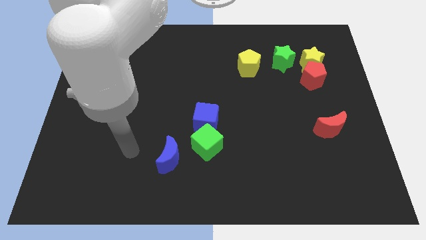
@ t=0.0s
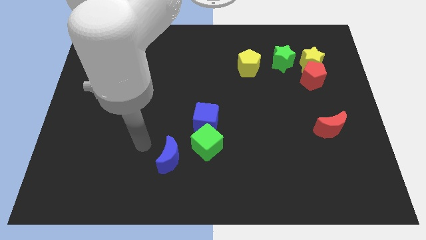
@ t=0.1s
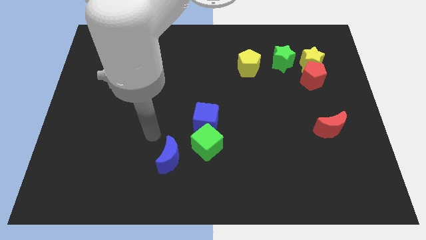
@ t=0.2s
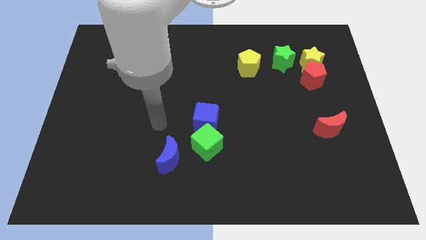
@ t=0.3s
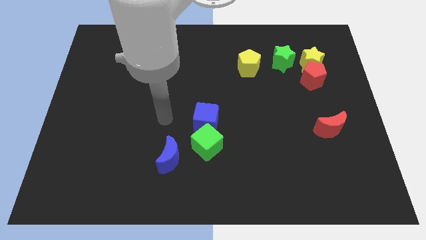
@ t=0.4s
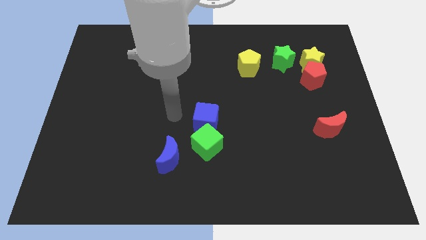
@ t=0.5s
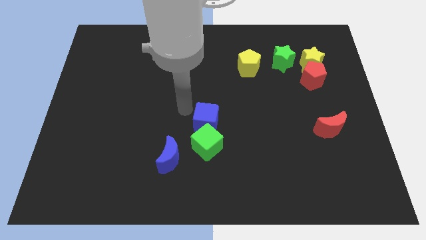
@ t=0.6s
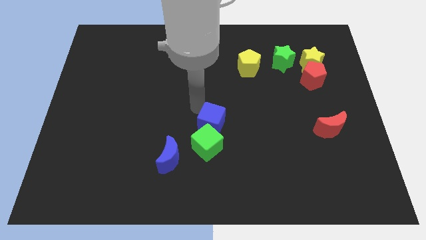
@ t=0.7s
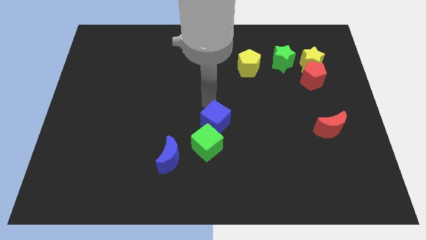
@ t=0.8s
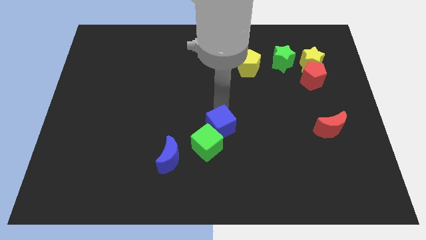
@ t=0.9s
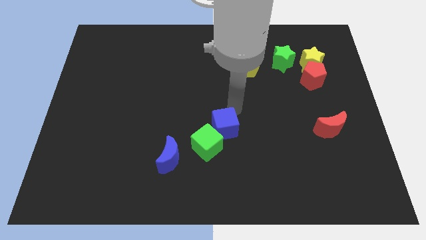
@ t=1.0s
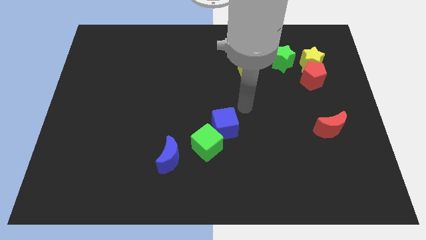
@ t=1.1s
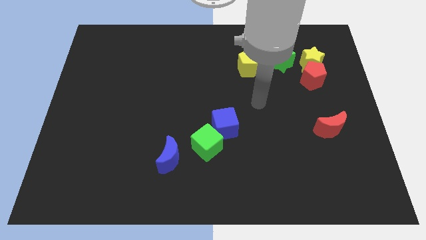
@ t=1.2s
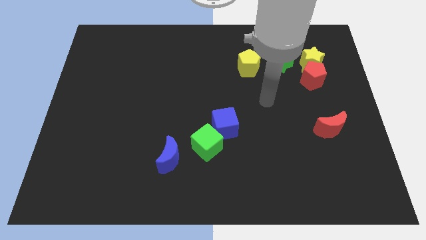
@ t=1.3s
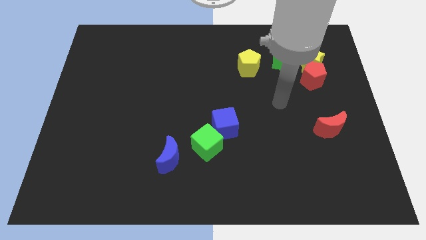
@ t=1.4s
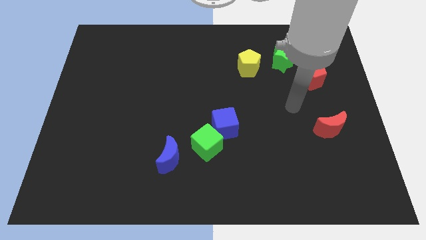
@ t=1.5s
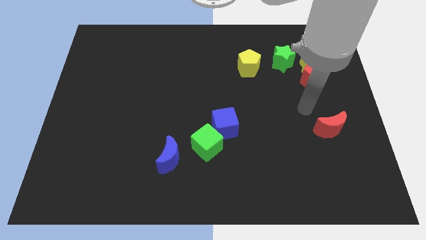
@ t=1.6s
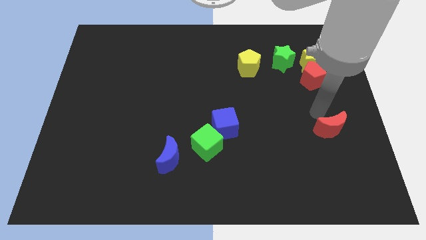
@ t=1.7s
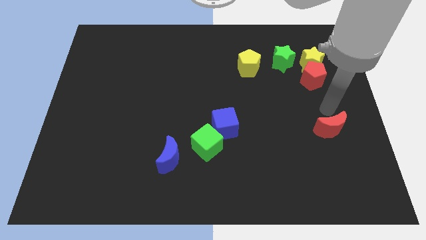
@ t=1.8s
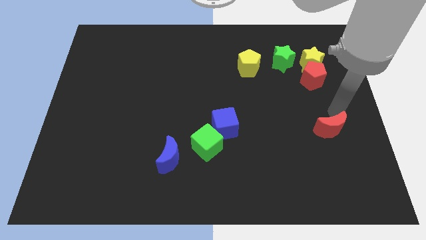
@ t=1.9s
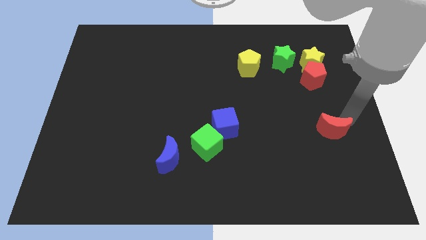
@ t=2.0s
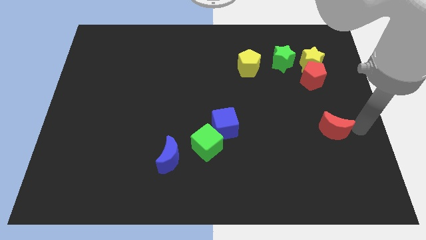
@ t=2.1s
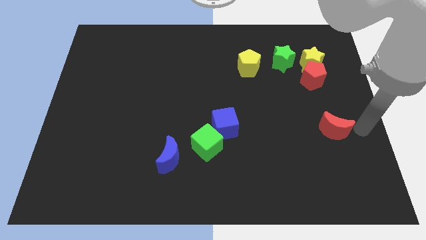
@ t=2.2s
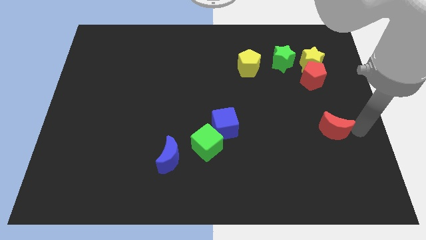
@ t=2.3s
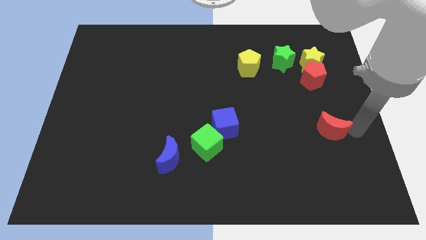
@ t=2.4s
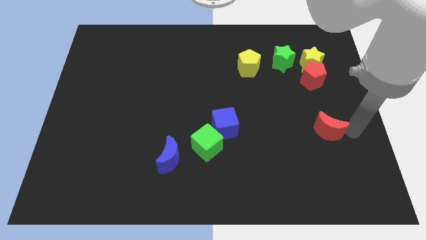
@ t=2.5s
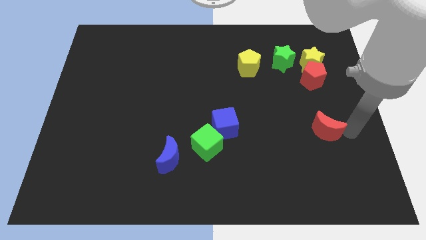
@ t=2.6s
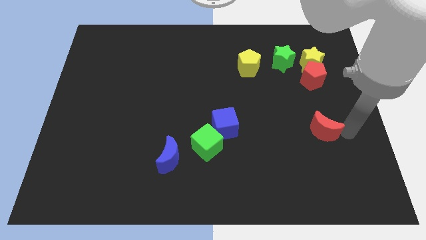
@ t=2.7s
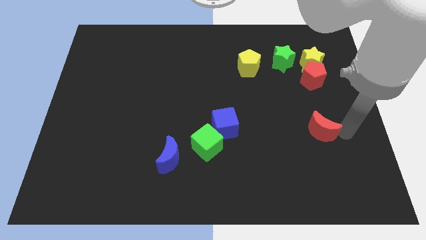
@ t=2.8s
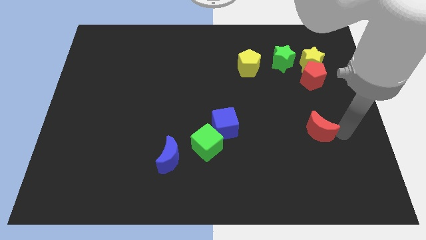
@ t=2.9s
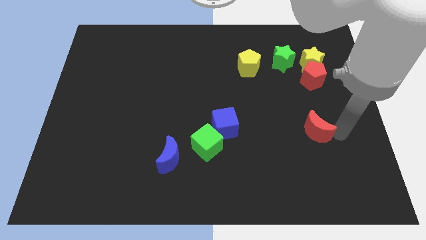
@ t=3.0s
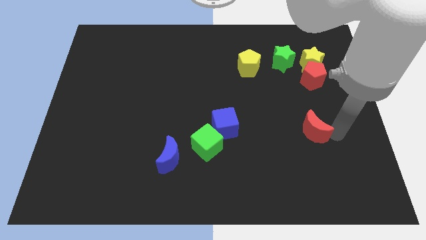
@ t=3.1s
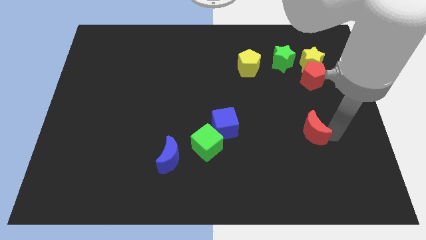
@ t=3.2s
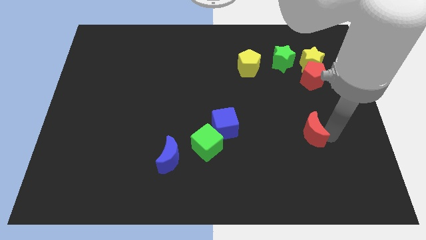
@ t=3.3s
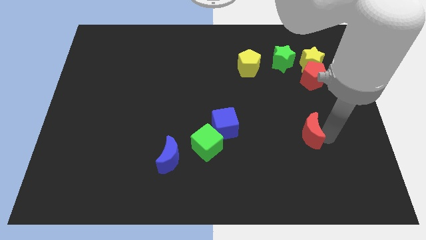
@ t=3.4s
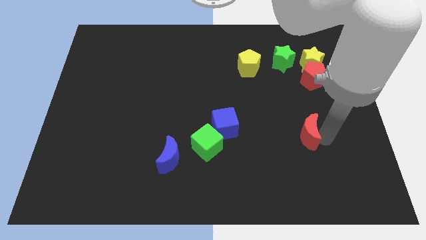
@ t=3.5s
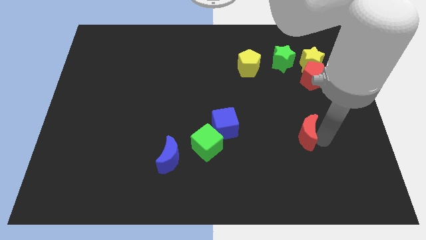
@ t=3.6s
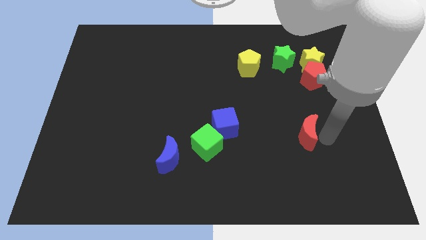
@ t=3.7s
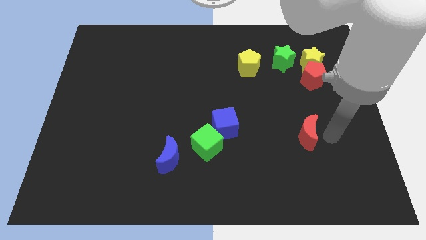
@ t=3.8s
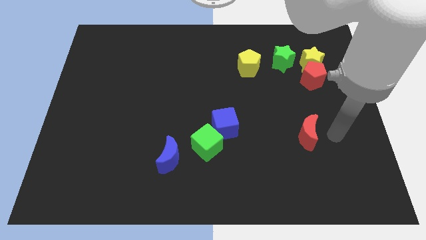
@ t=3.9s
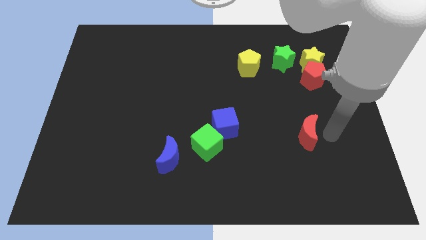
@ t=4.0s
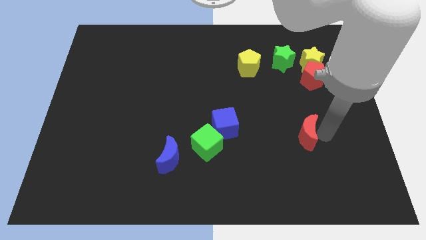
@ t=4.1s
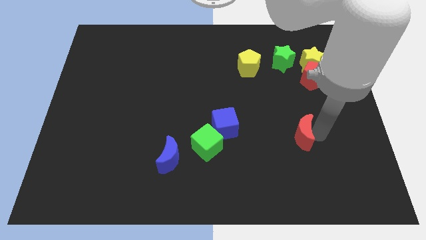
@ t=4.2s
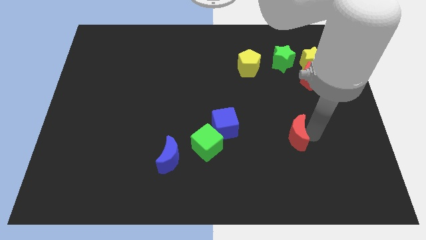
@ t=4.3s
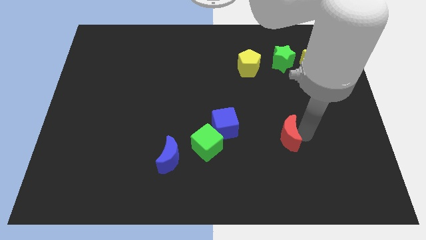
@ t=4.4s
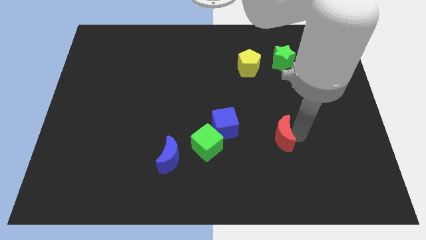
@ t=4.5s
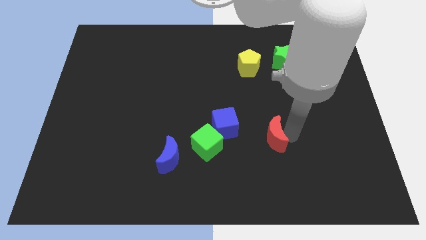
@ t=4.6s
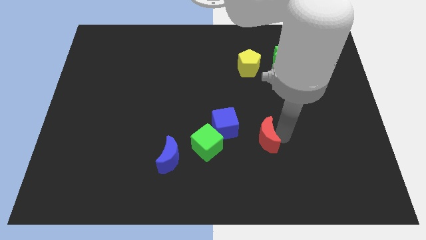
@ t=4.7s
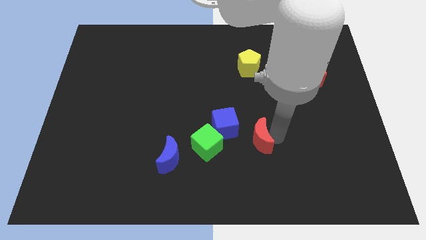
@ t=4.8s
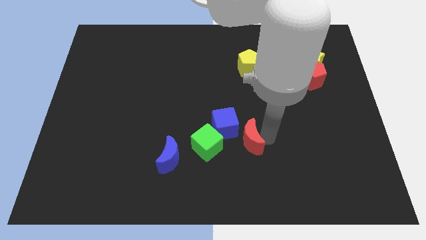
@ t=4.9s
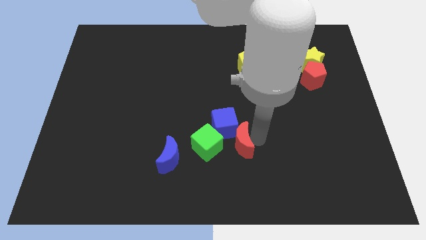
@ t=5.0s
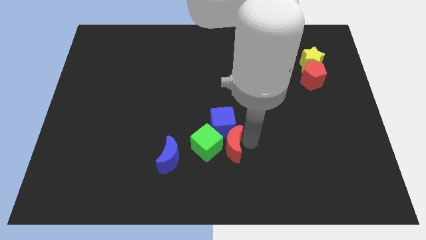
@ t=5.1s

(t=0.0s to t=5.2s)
push the red moon close to the green cube

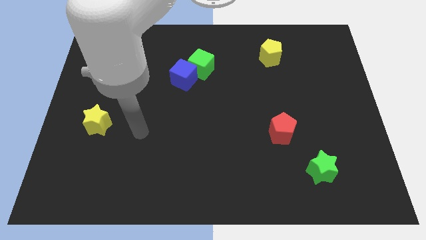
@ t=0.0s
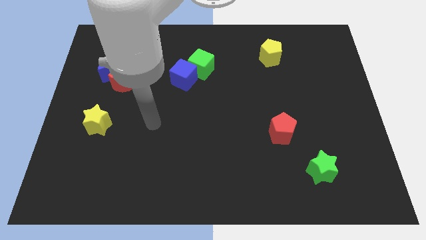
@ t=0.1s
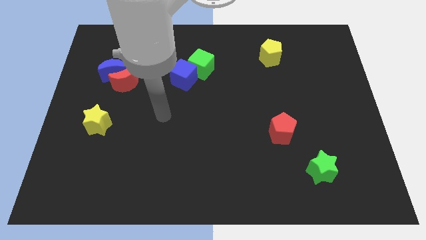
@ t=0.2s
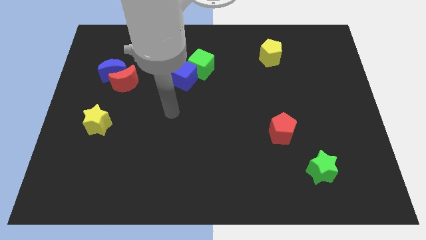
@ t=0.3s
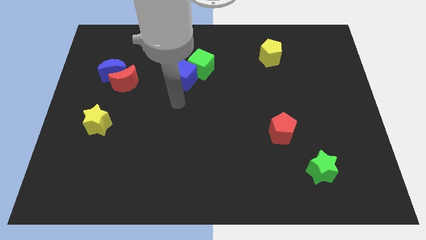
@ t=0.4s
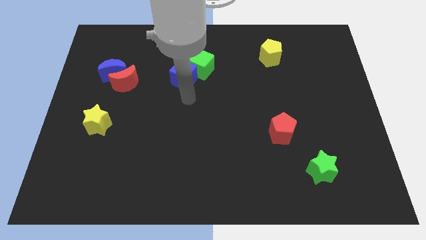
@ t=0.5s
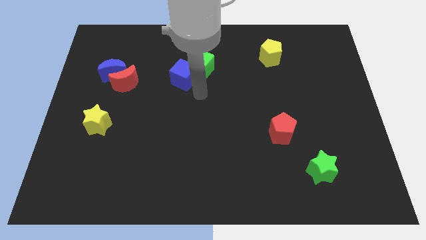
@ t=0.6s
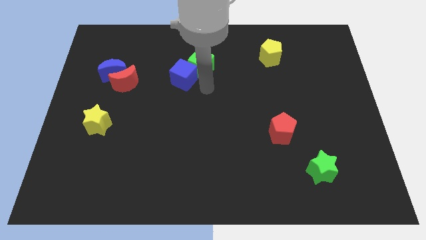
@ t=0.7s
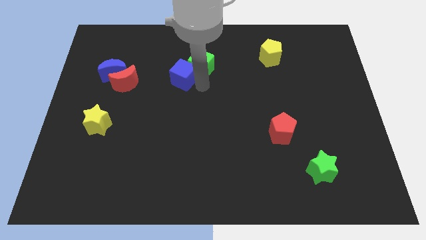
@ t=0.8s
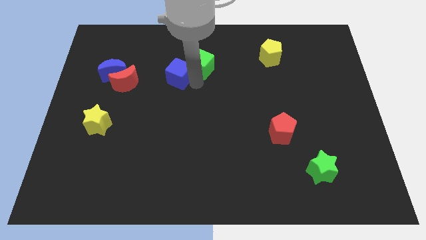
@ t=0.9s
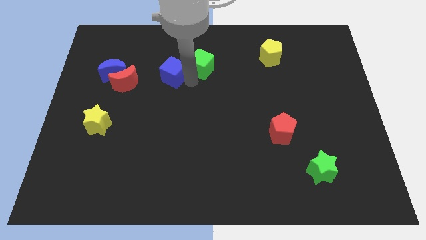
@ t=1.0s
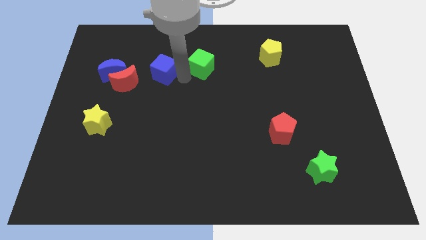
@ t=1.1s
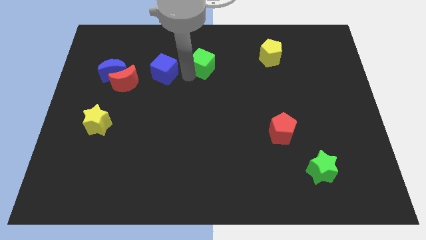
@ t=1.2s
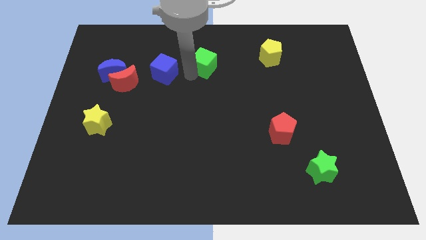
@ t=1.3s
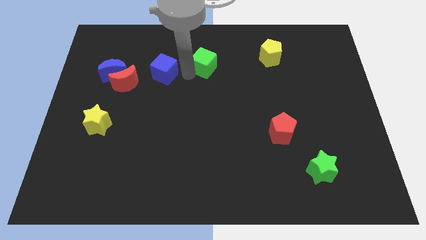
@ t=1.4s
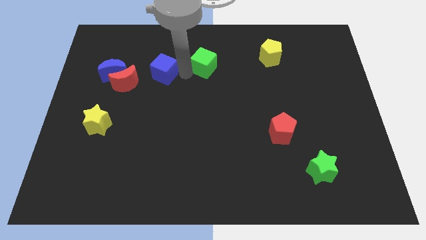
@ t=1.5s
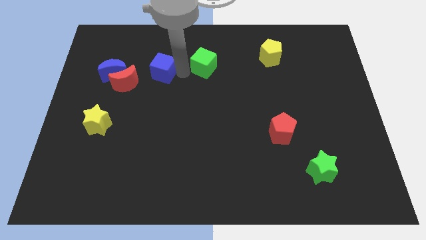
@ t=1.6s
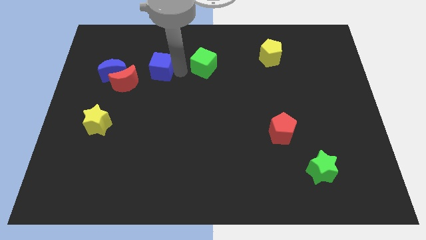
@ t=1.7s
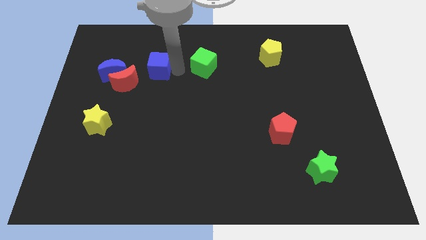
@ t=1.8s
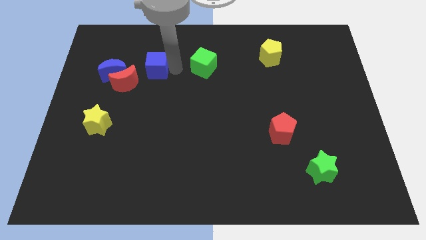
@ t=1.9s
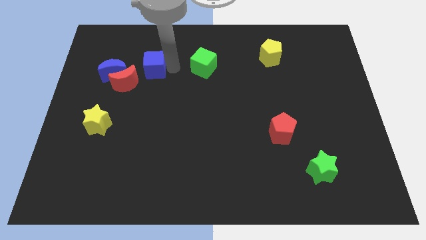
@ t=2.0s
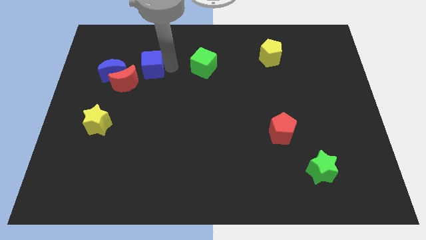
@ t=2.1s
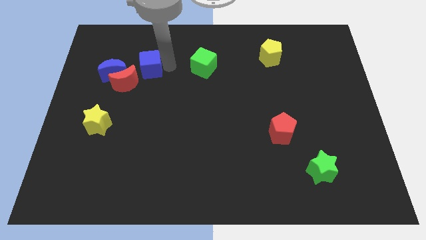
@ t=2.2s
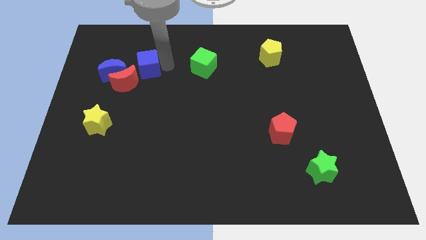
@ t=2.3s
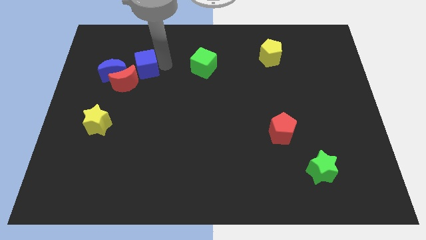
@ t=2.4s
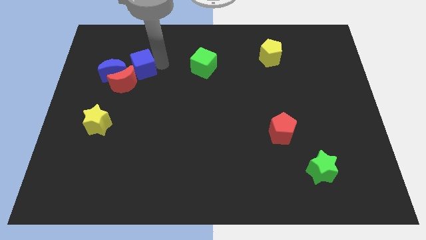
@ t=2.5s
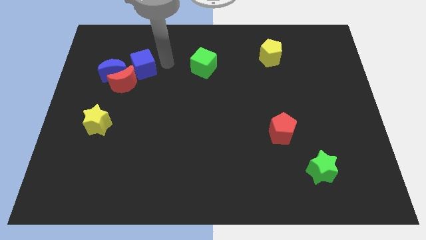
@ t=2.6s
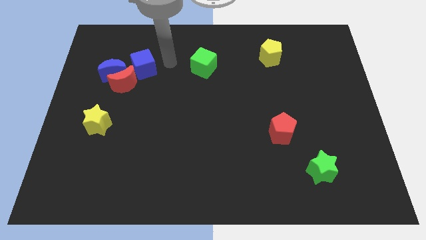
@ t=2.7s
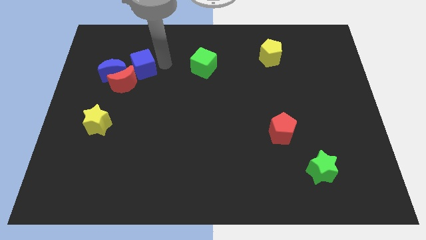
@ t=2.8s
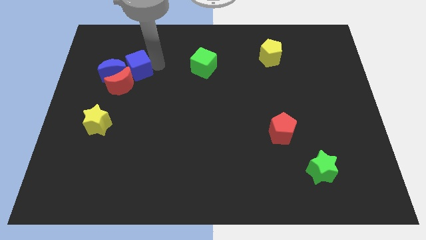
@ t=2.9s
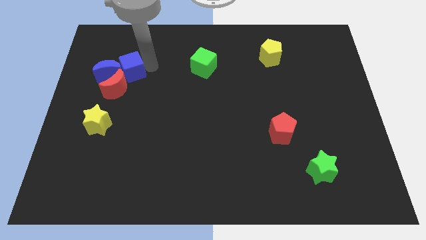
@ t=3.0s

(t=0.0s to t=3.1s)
put the blue cube to the blue moon

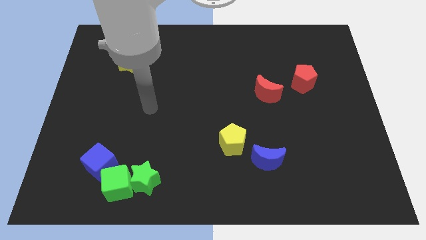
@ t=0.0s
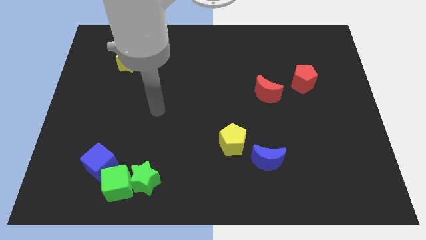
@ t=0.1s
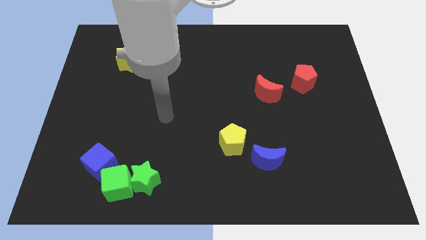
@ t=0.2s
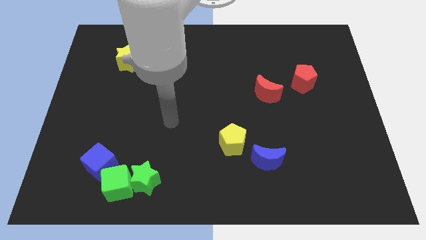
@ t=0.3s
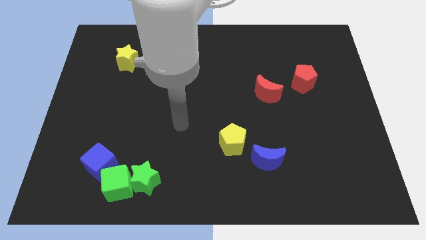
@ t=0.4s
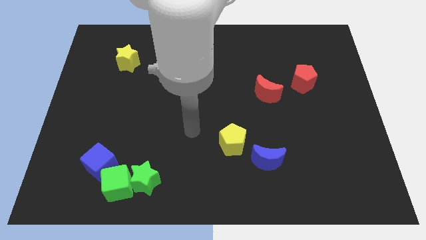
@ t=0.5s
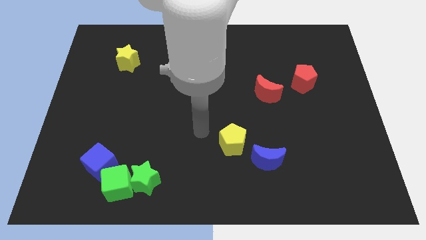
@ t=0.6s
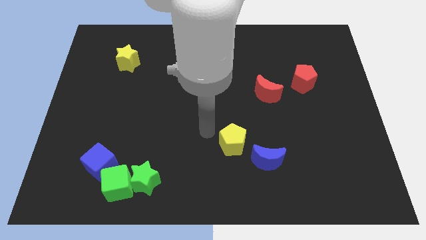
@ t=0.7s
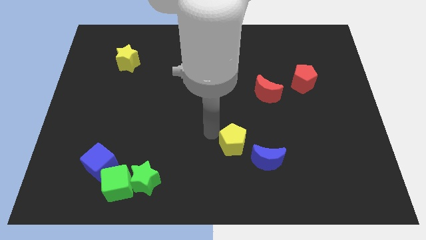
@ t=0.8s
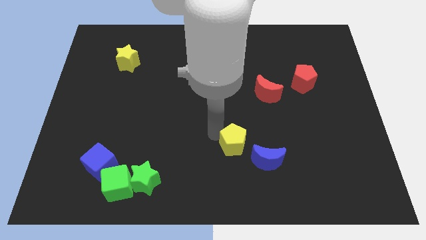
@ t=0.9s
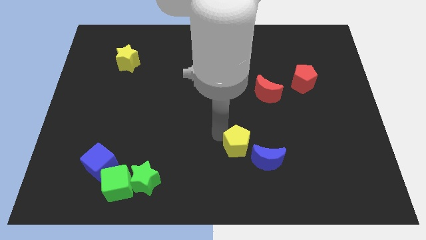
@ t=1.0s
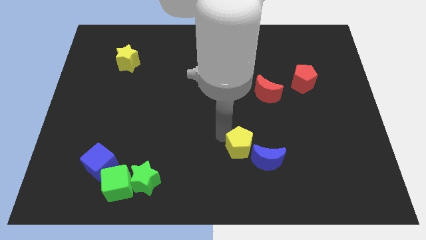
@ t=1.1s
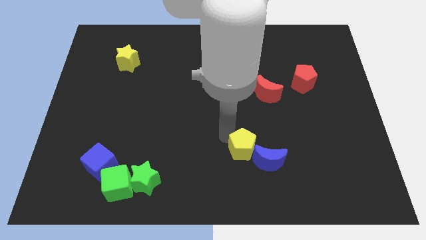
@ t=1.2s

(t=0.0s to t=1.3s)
put the yellow pentagon next to the blue moon
